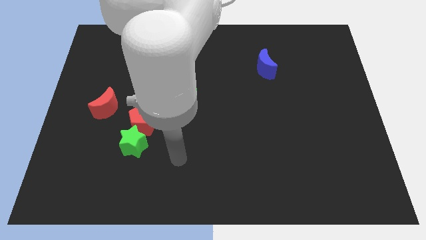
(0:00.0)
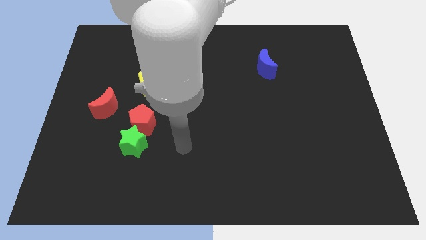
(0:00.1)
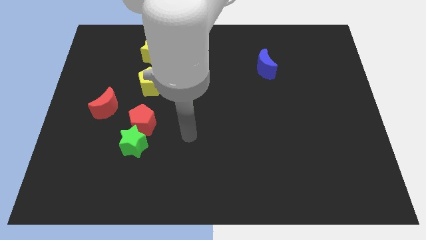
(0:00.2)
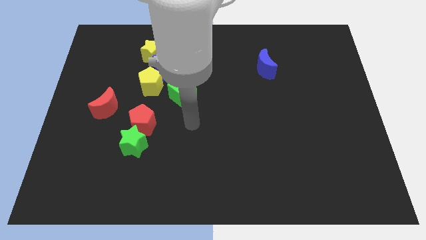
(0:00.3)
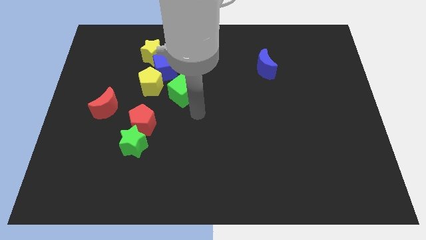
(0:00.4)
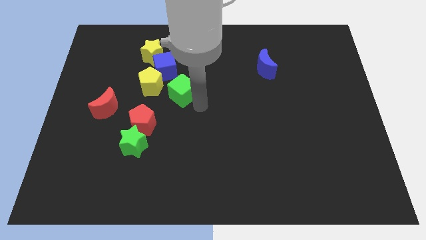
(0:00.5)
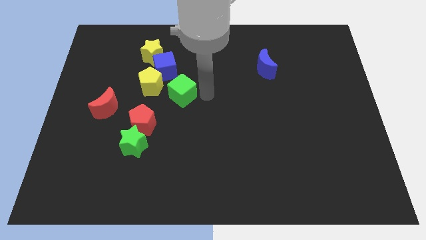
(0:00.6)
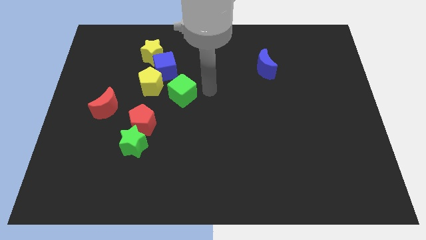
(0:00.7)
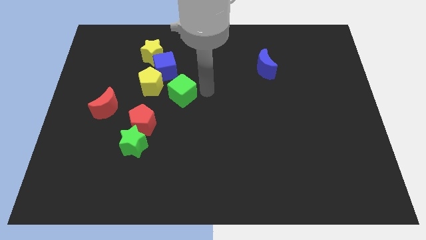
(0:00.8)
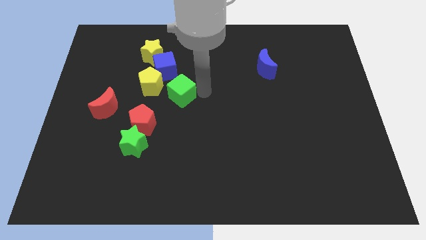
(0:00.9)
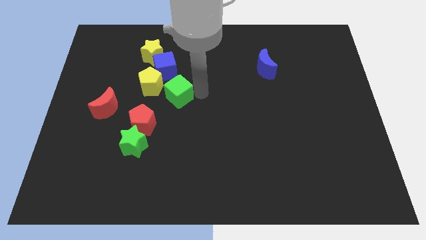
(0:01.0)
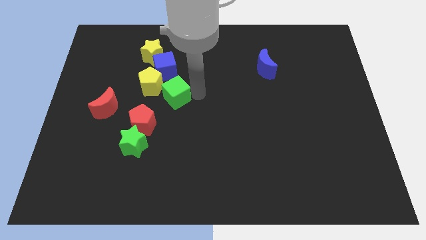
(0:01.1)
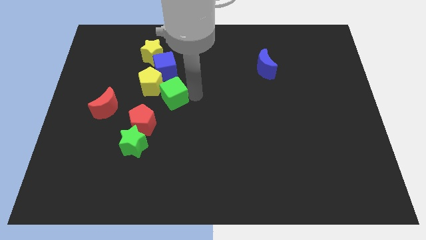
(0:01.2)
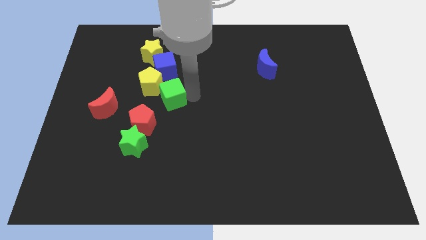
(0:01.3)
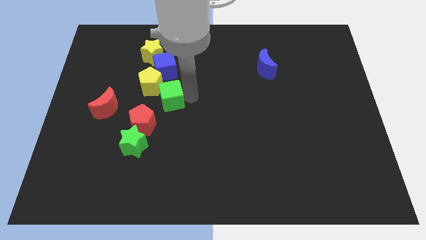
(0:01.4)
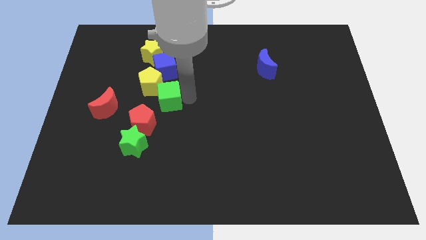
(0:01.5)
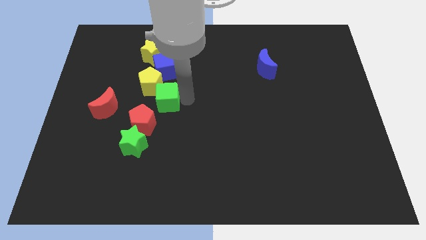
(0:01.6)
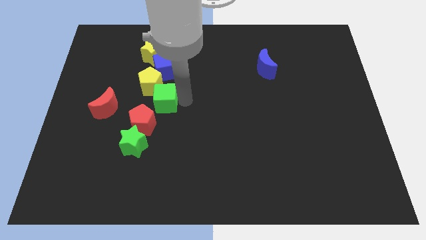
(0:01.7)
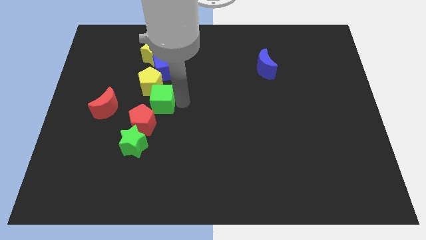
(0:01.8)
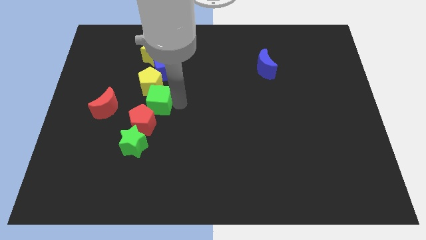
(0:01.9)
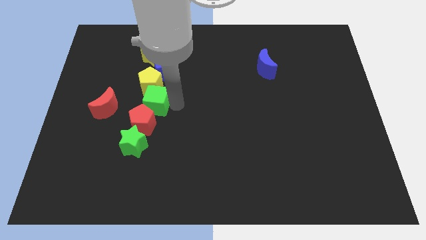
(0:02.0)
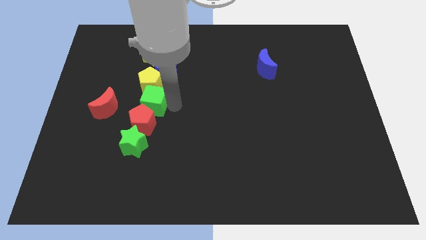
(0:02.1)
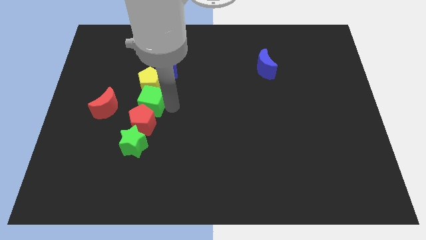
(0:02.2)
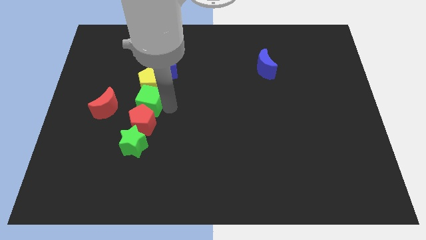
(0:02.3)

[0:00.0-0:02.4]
push the green cube a bit left

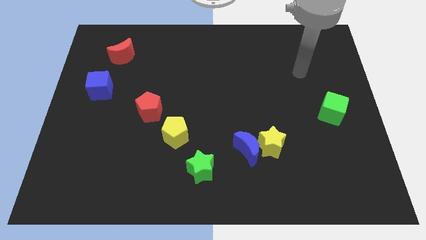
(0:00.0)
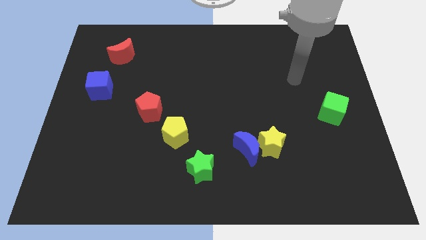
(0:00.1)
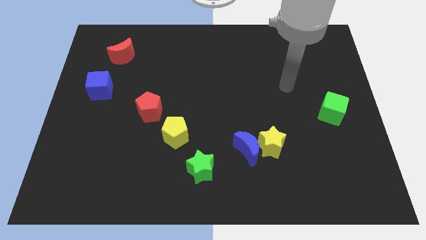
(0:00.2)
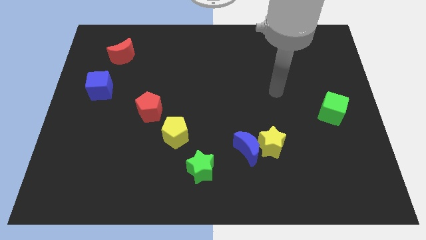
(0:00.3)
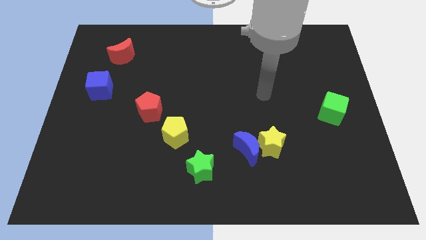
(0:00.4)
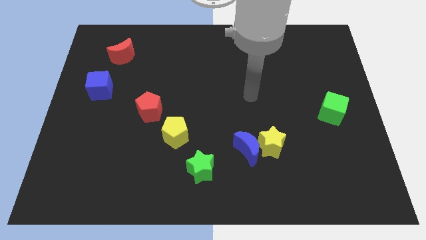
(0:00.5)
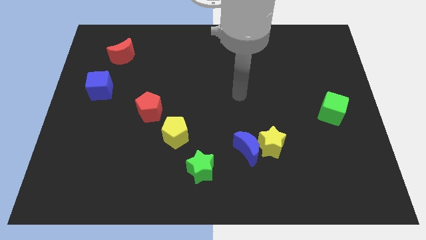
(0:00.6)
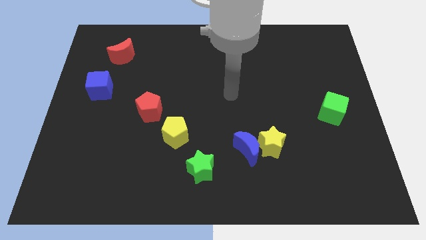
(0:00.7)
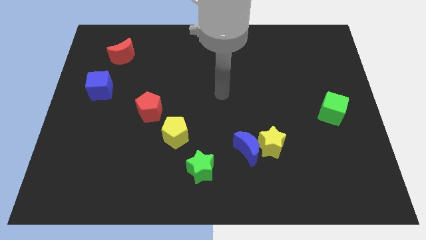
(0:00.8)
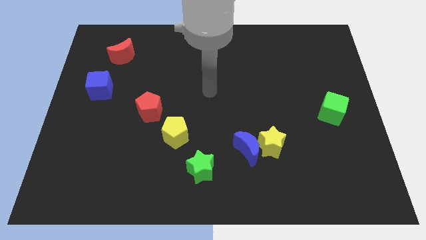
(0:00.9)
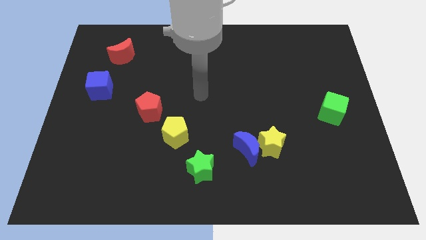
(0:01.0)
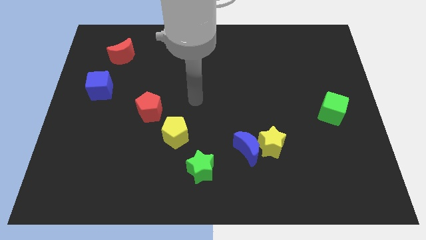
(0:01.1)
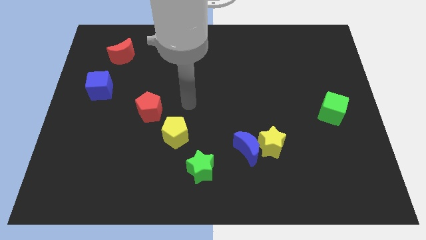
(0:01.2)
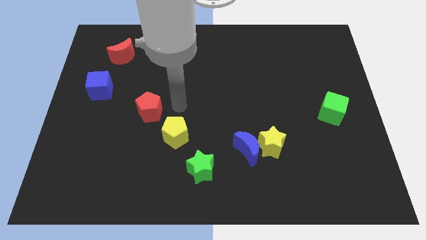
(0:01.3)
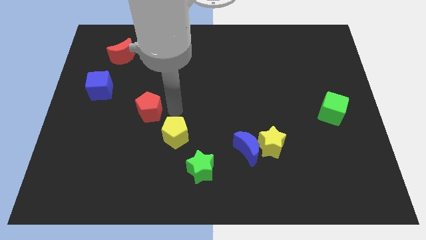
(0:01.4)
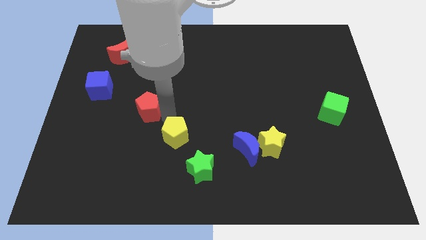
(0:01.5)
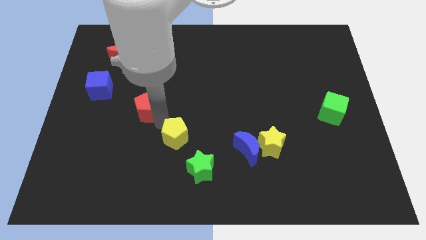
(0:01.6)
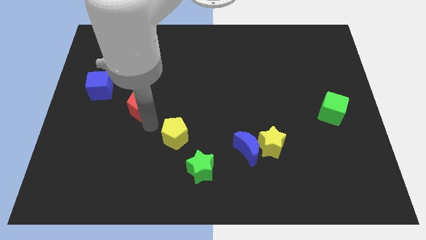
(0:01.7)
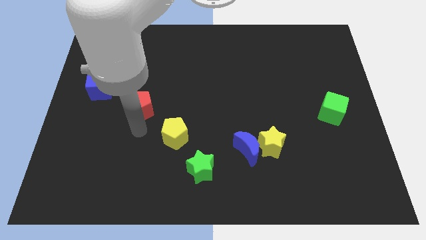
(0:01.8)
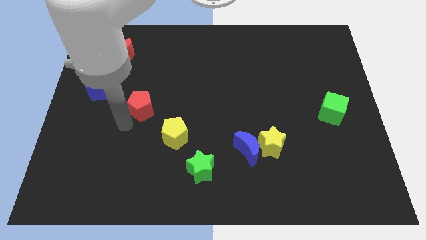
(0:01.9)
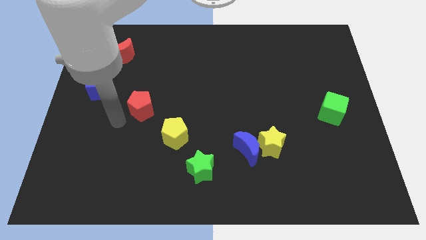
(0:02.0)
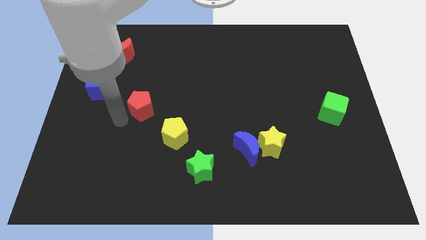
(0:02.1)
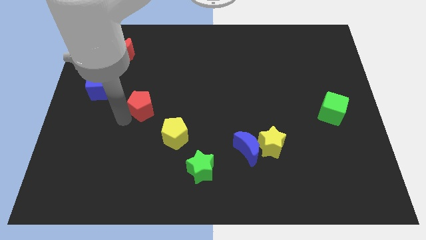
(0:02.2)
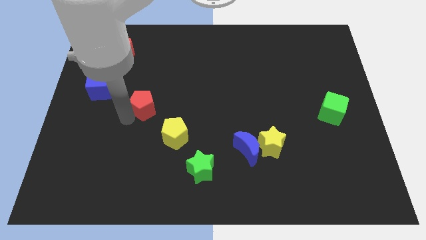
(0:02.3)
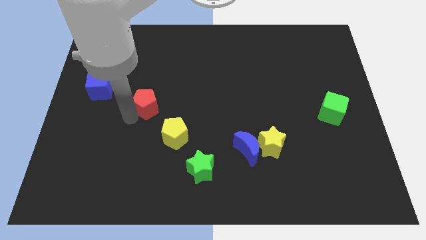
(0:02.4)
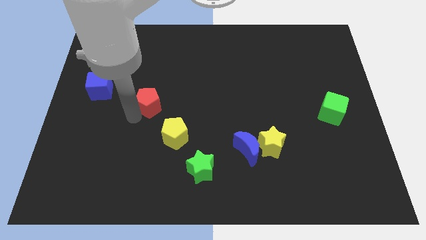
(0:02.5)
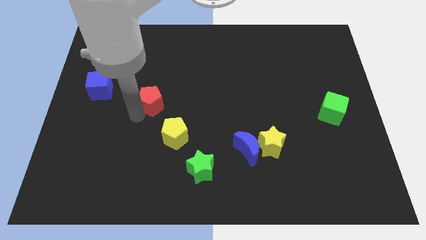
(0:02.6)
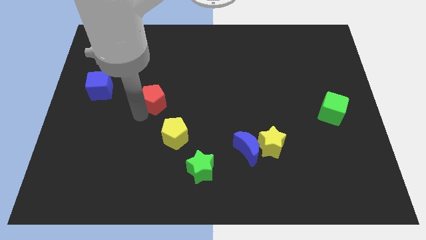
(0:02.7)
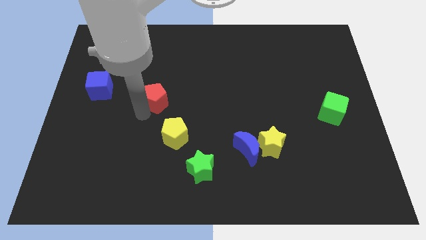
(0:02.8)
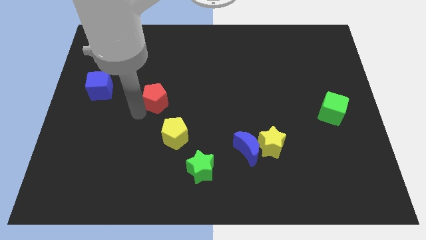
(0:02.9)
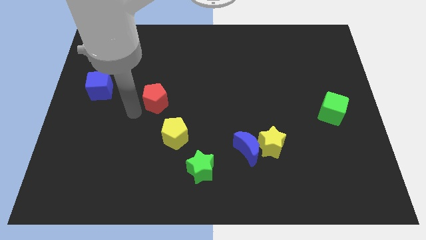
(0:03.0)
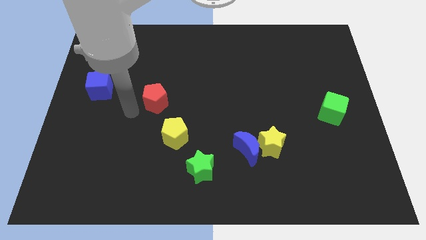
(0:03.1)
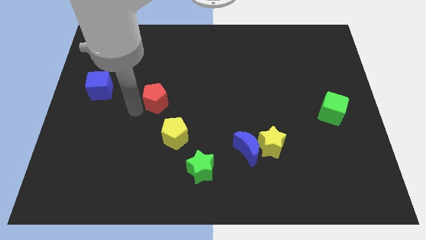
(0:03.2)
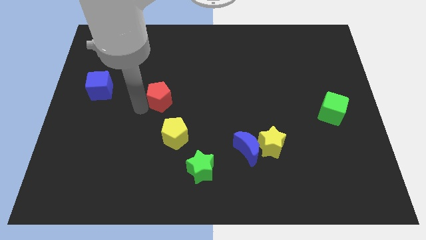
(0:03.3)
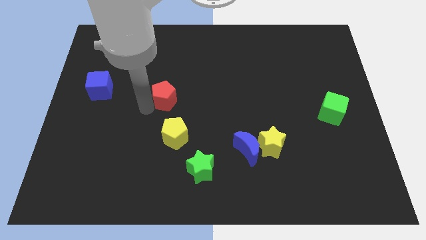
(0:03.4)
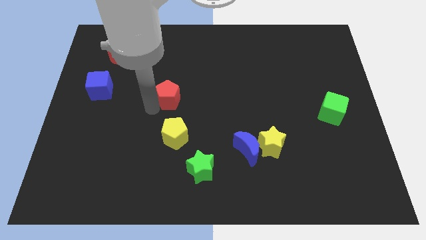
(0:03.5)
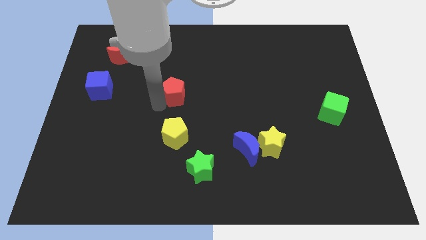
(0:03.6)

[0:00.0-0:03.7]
slightly move the red pentagon diagonally upwards and right

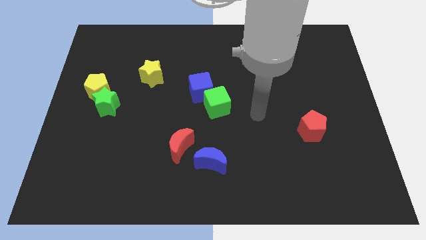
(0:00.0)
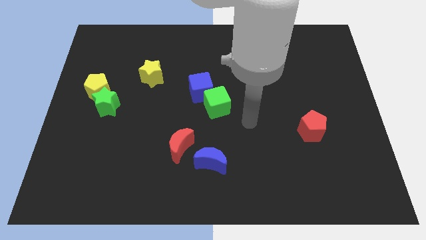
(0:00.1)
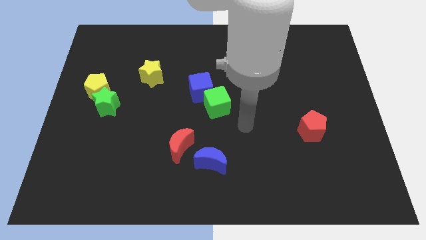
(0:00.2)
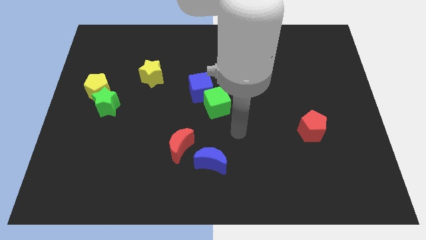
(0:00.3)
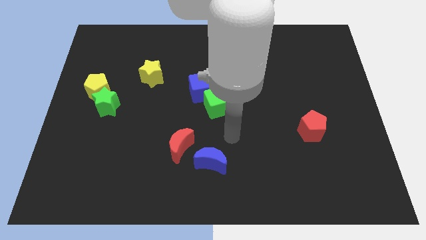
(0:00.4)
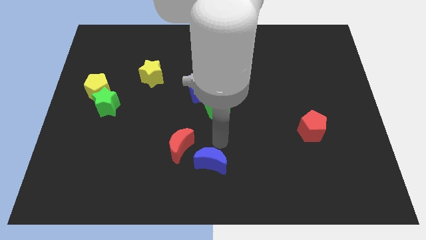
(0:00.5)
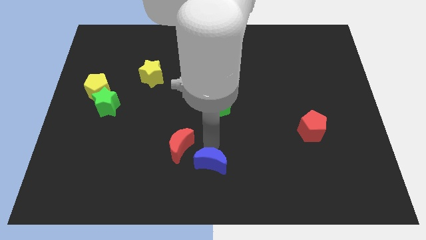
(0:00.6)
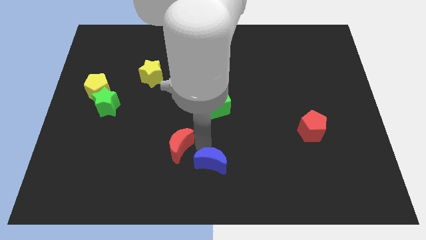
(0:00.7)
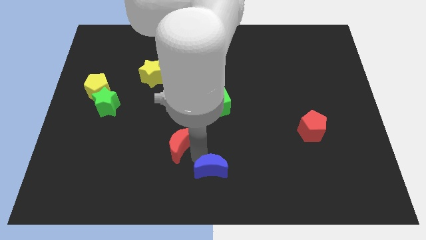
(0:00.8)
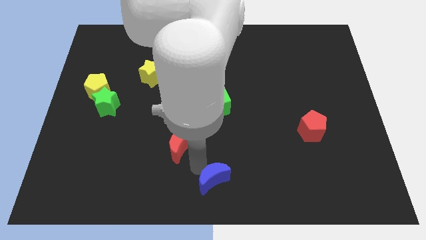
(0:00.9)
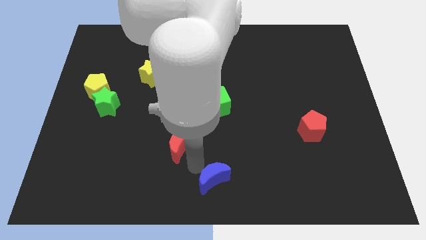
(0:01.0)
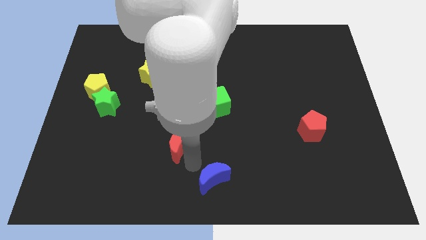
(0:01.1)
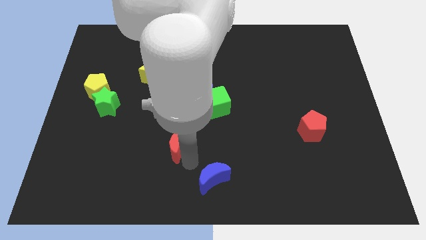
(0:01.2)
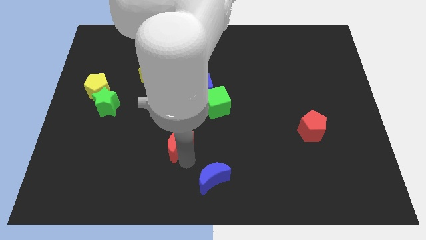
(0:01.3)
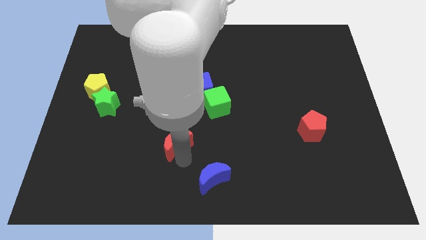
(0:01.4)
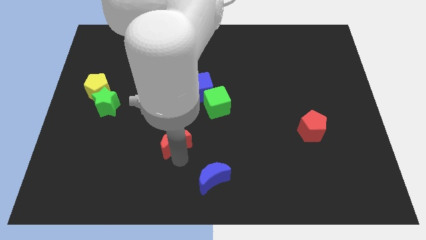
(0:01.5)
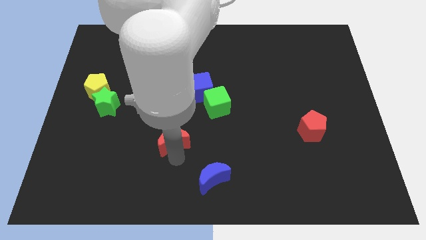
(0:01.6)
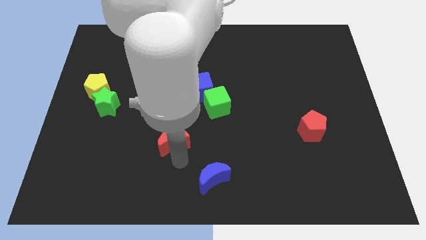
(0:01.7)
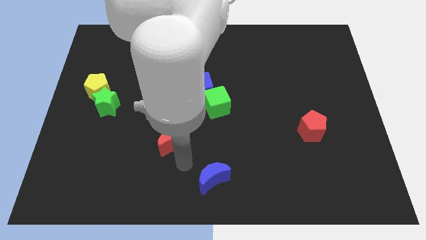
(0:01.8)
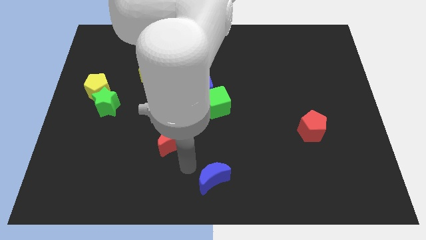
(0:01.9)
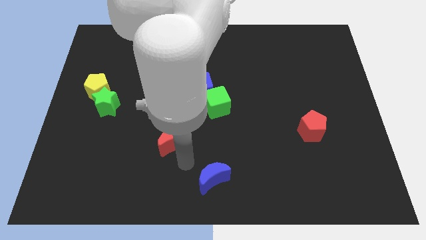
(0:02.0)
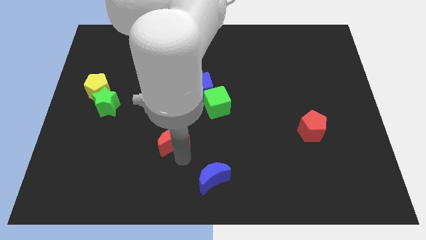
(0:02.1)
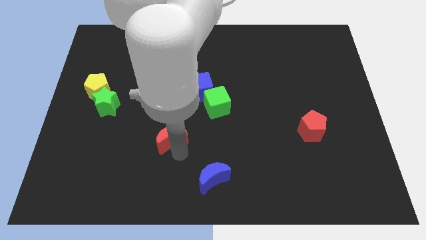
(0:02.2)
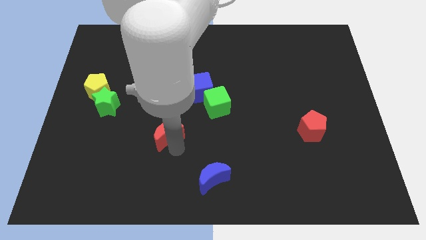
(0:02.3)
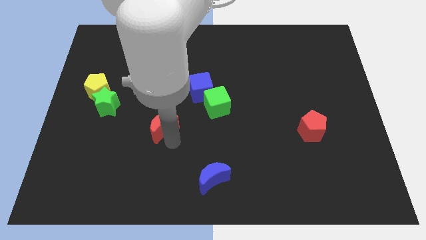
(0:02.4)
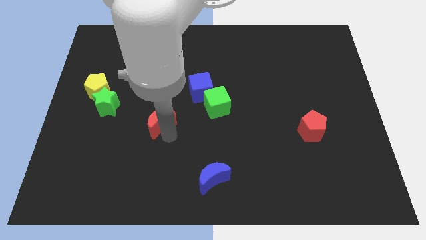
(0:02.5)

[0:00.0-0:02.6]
slide the red moon upwards and left a little
